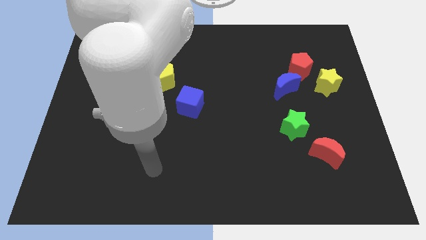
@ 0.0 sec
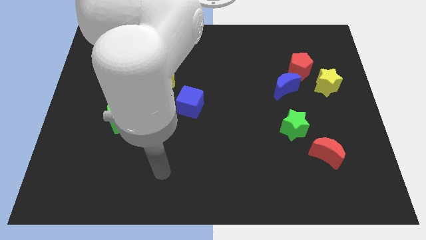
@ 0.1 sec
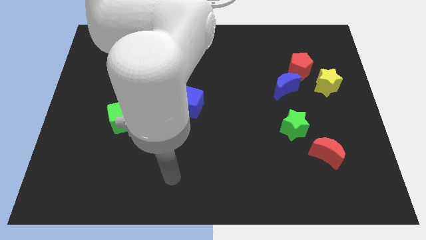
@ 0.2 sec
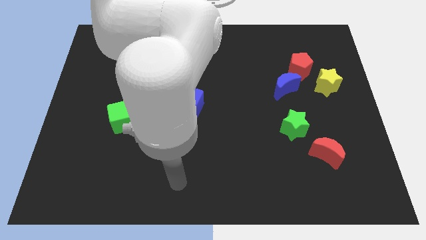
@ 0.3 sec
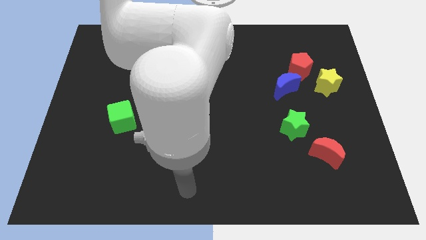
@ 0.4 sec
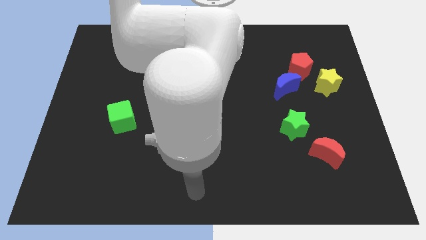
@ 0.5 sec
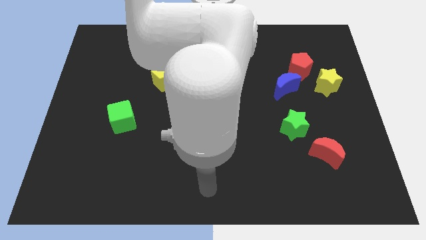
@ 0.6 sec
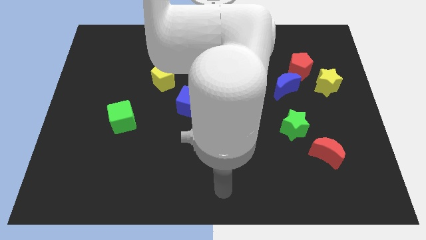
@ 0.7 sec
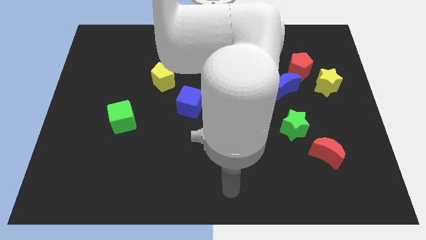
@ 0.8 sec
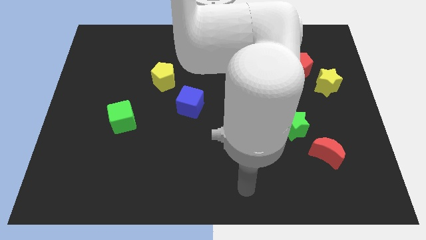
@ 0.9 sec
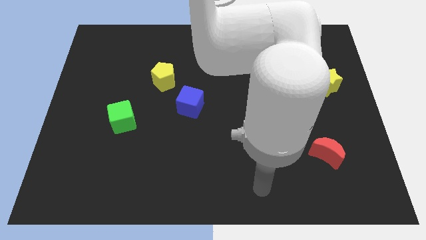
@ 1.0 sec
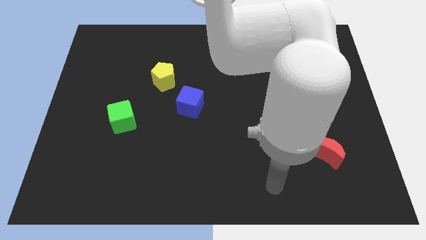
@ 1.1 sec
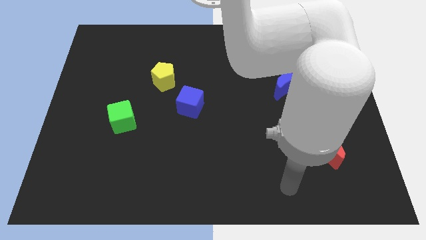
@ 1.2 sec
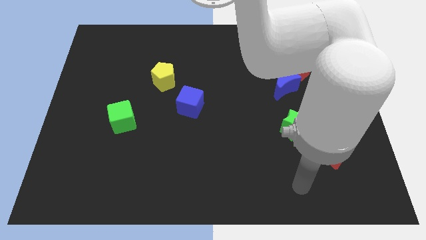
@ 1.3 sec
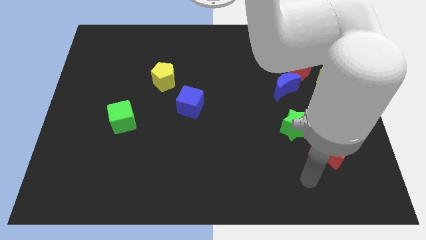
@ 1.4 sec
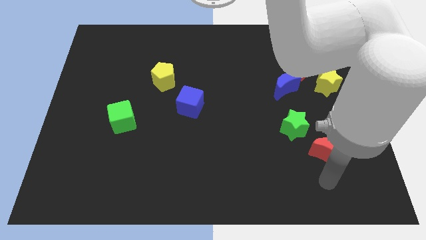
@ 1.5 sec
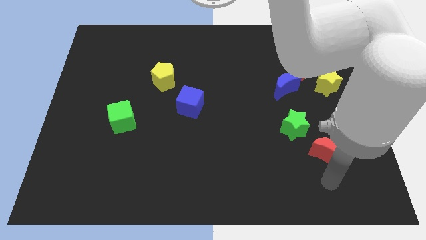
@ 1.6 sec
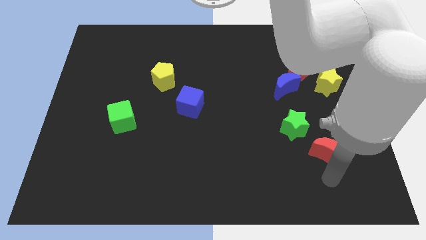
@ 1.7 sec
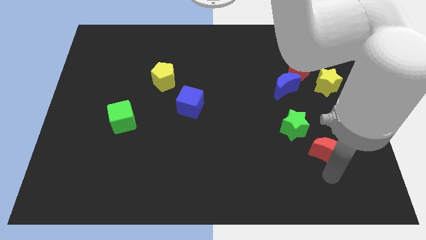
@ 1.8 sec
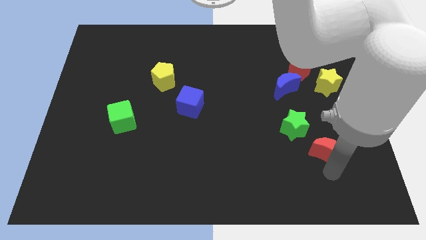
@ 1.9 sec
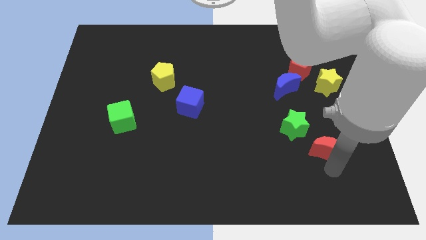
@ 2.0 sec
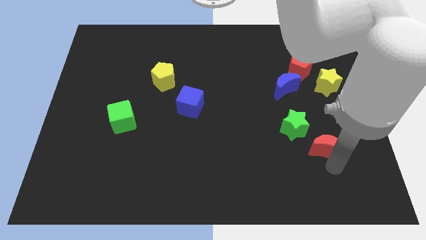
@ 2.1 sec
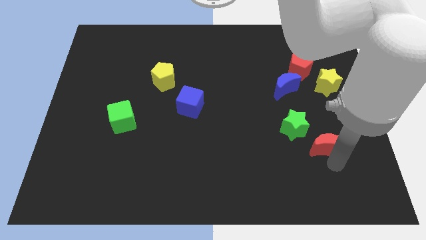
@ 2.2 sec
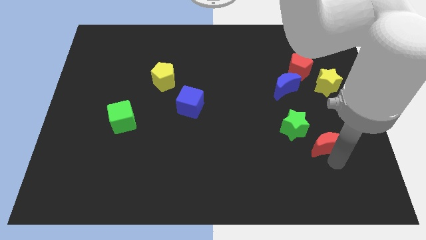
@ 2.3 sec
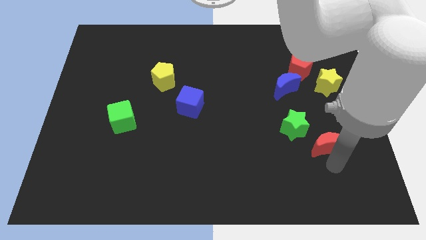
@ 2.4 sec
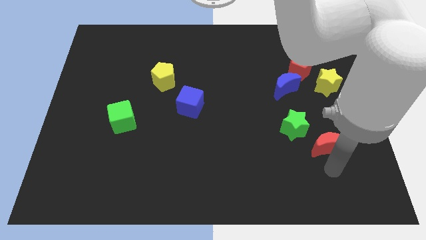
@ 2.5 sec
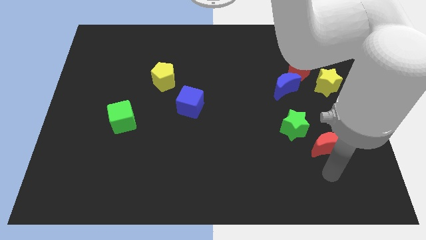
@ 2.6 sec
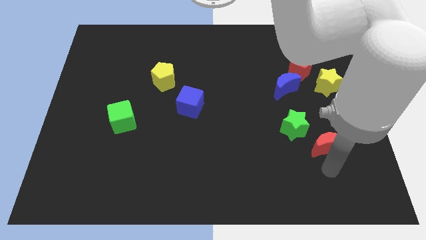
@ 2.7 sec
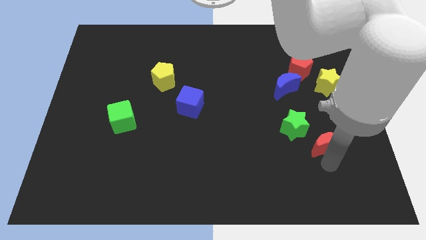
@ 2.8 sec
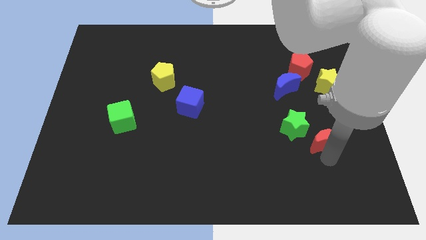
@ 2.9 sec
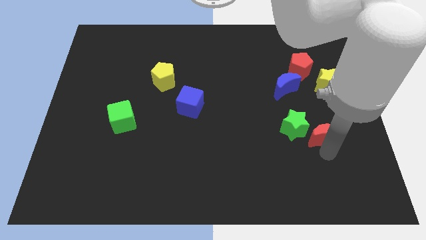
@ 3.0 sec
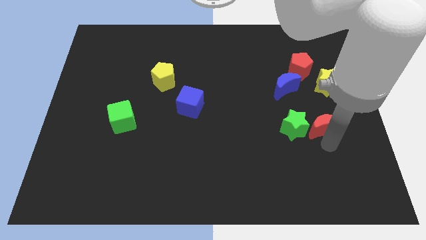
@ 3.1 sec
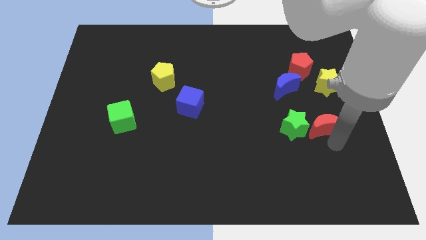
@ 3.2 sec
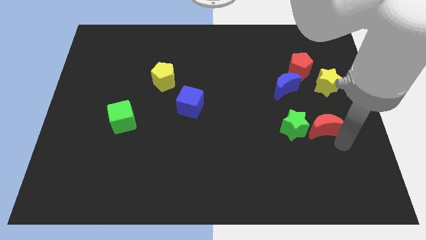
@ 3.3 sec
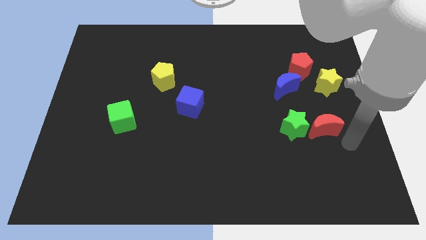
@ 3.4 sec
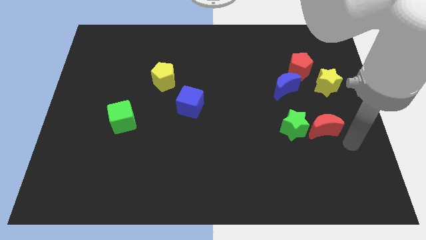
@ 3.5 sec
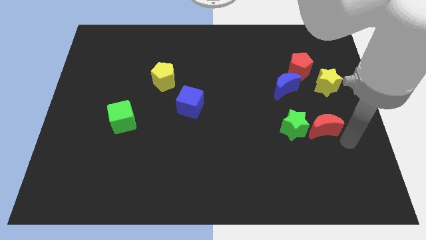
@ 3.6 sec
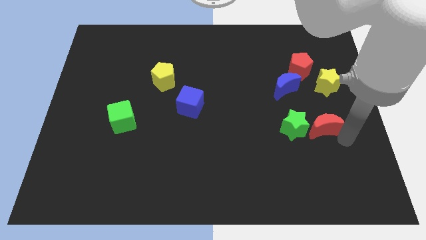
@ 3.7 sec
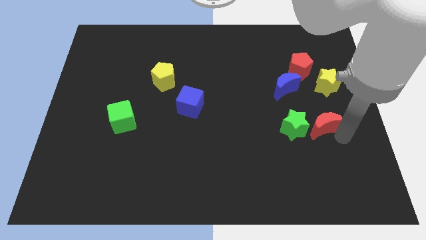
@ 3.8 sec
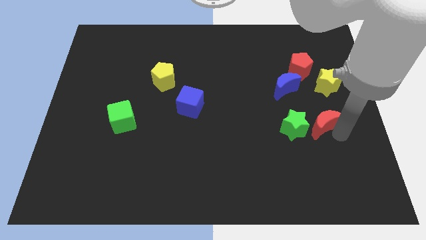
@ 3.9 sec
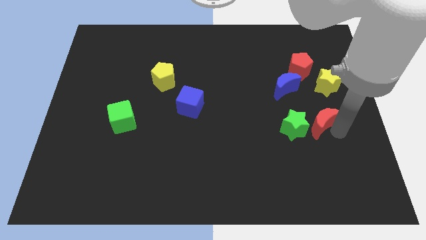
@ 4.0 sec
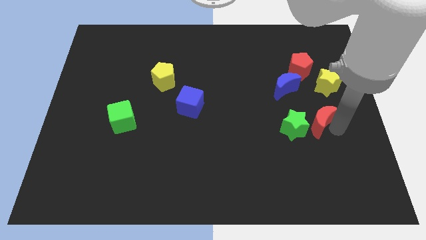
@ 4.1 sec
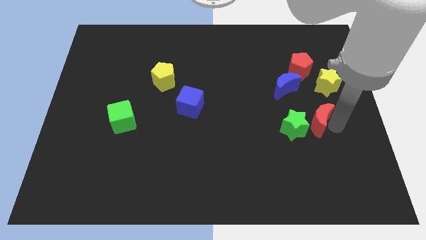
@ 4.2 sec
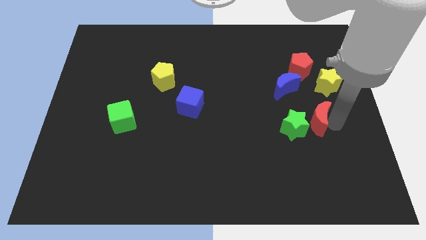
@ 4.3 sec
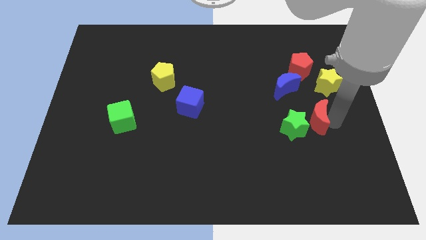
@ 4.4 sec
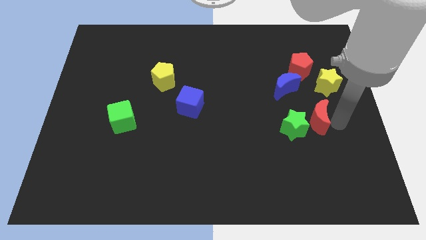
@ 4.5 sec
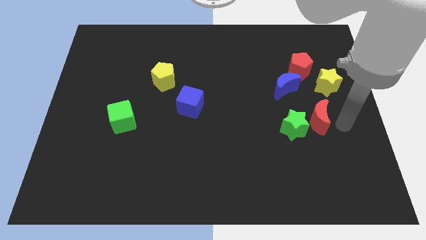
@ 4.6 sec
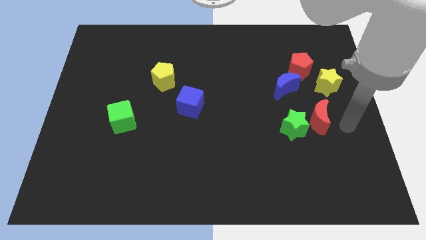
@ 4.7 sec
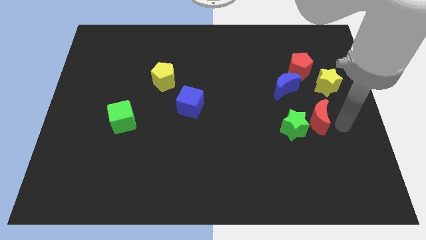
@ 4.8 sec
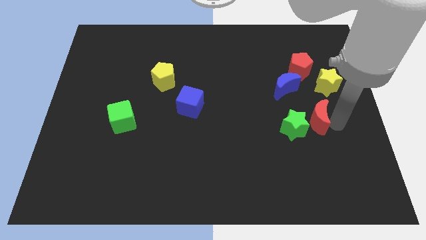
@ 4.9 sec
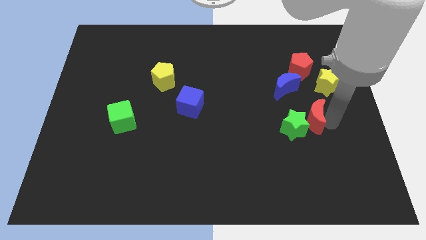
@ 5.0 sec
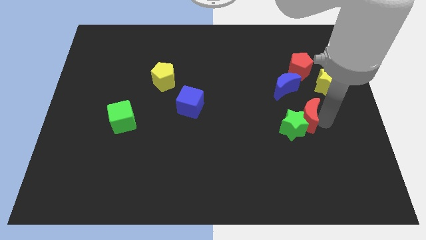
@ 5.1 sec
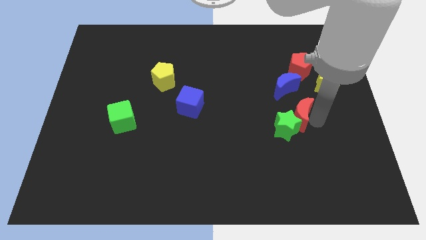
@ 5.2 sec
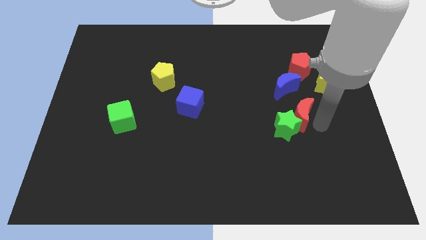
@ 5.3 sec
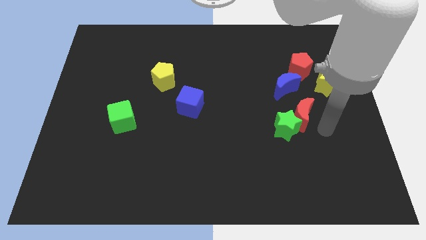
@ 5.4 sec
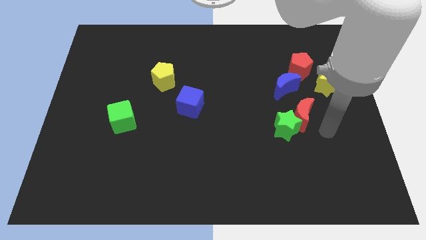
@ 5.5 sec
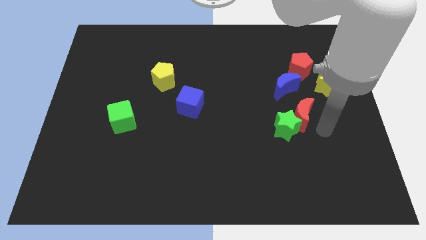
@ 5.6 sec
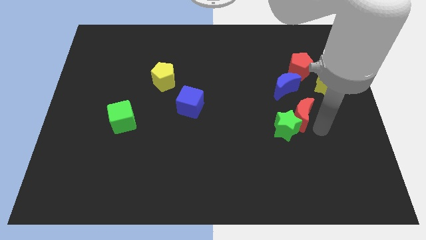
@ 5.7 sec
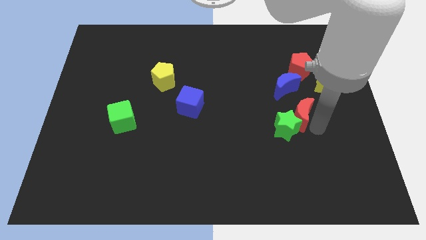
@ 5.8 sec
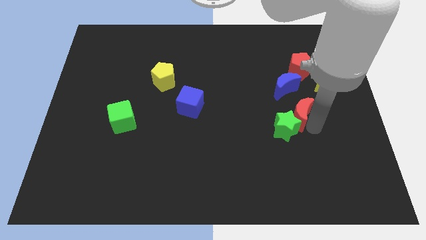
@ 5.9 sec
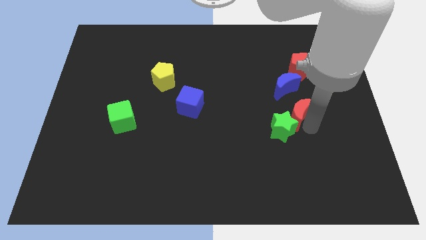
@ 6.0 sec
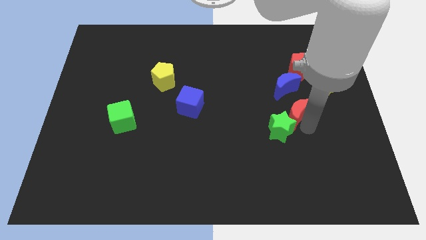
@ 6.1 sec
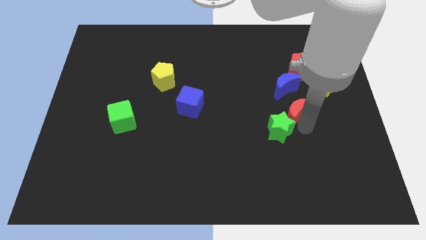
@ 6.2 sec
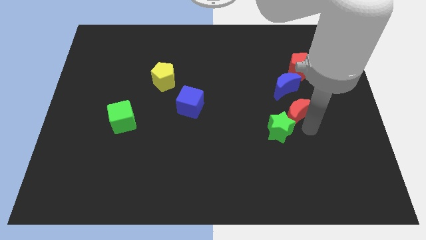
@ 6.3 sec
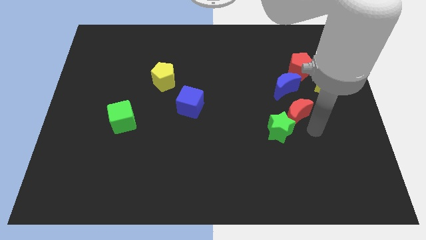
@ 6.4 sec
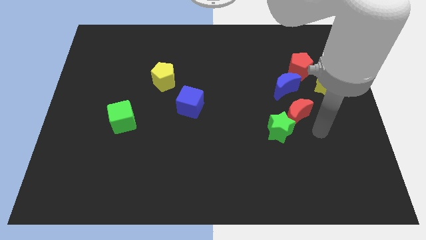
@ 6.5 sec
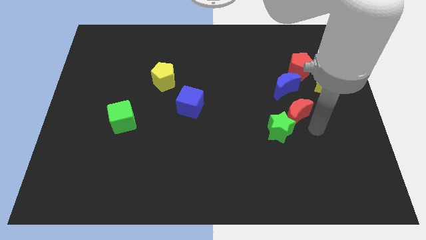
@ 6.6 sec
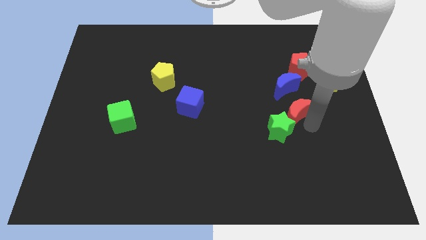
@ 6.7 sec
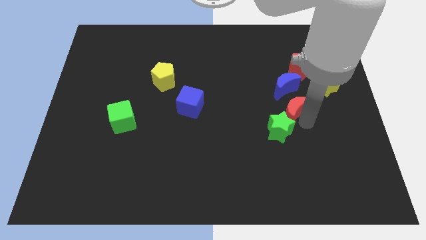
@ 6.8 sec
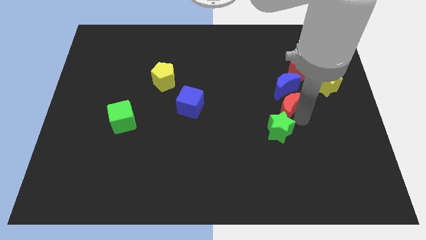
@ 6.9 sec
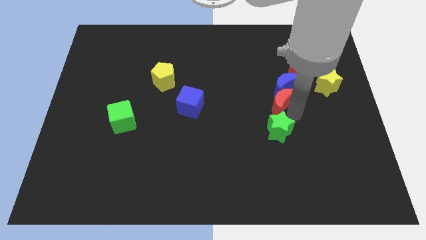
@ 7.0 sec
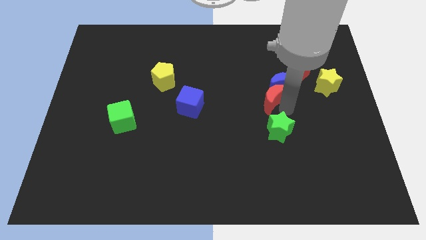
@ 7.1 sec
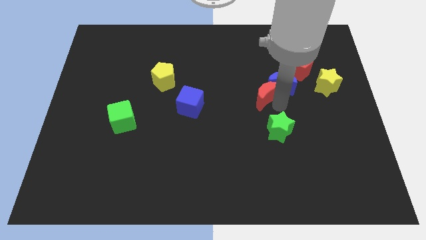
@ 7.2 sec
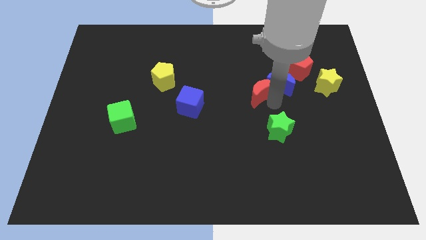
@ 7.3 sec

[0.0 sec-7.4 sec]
push the red moon diagonally up and left

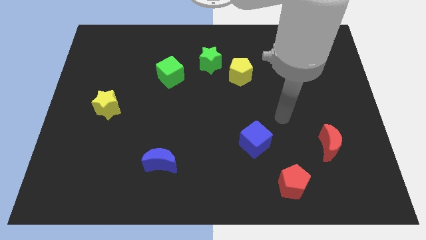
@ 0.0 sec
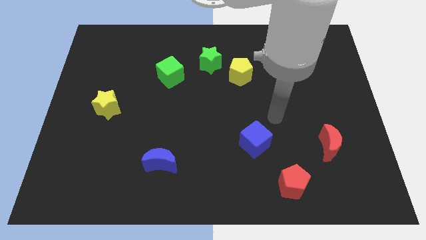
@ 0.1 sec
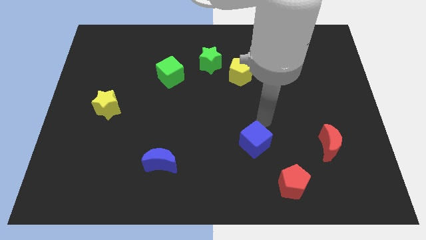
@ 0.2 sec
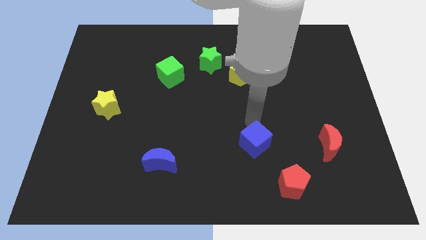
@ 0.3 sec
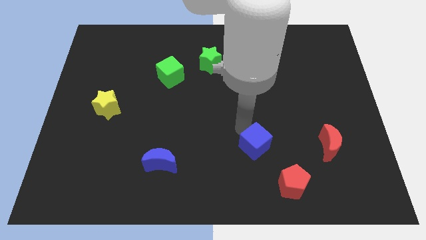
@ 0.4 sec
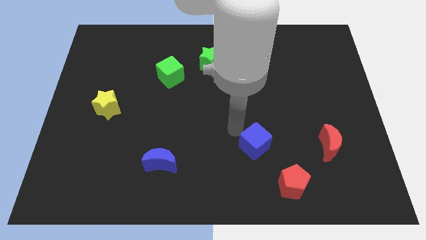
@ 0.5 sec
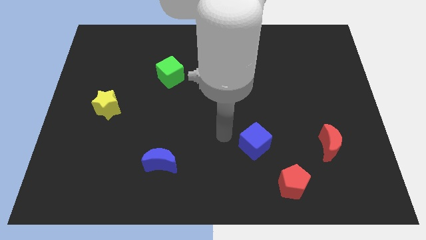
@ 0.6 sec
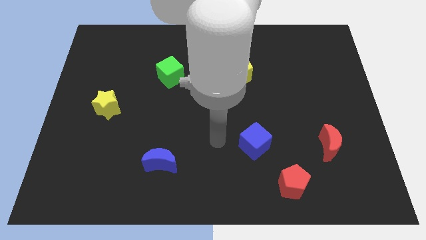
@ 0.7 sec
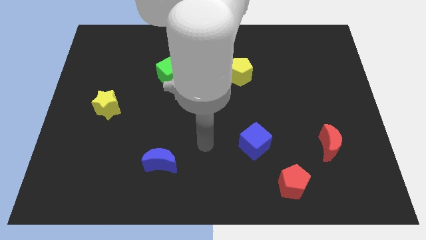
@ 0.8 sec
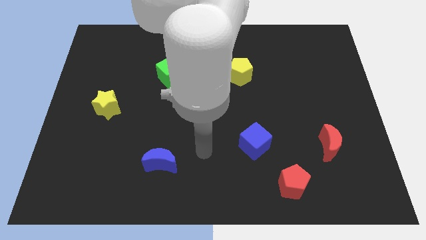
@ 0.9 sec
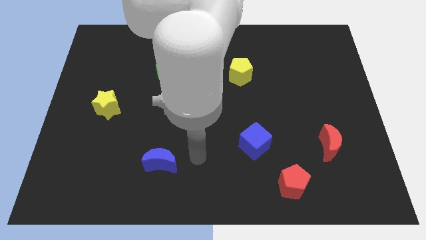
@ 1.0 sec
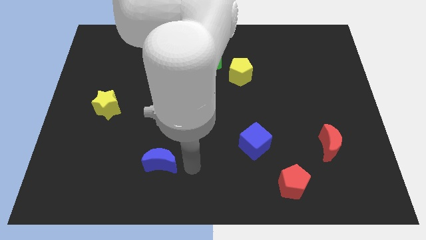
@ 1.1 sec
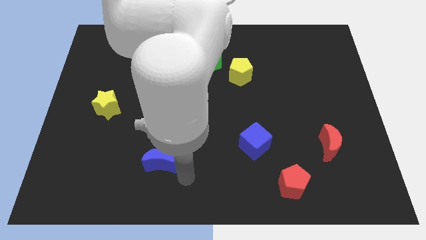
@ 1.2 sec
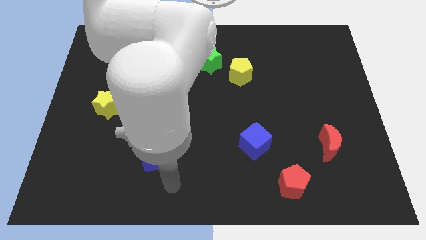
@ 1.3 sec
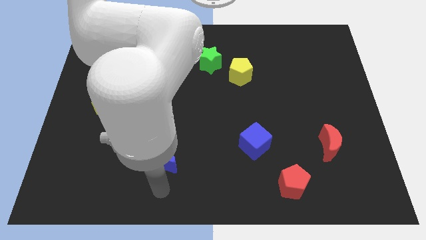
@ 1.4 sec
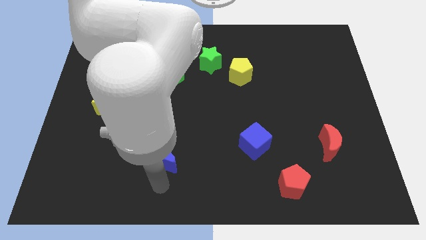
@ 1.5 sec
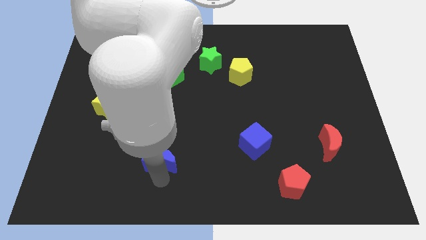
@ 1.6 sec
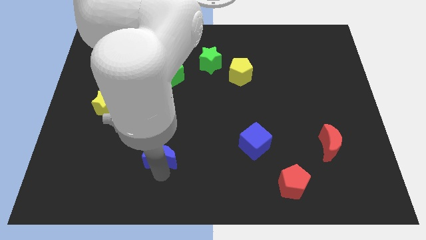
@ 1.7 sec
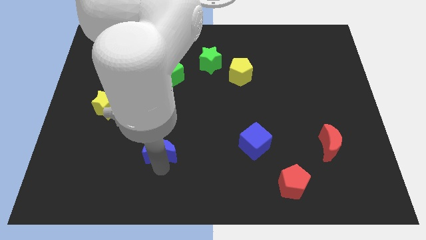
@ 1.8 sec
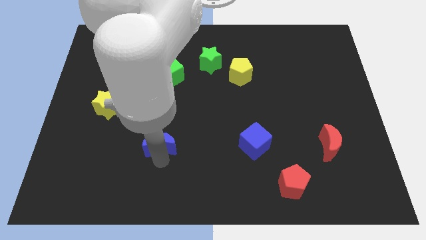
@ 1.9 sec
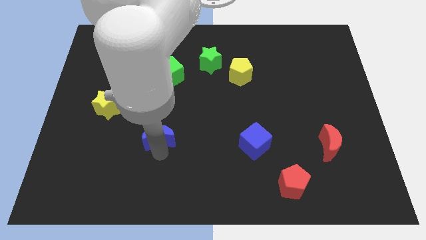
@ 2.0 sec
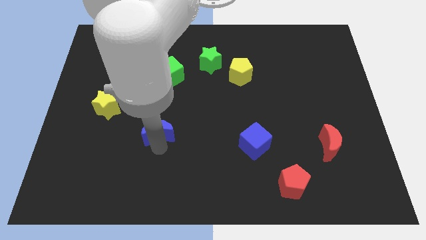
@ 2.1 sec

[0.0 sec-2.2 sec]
slightly move the blue moon upwards
